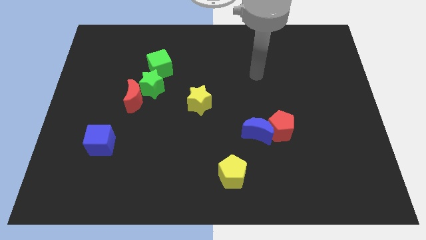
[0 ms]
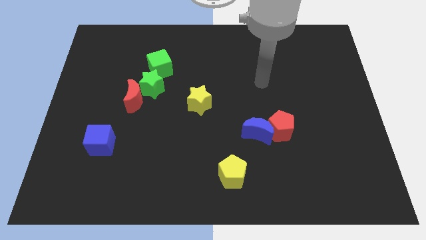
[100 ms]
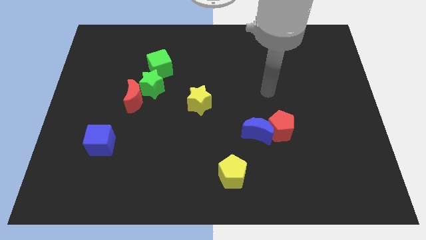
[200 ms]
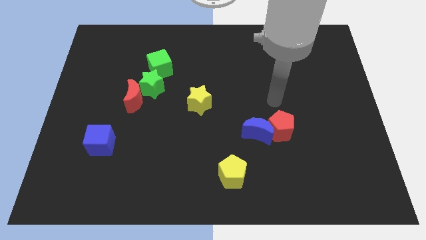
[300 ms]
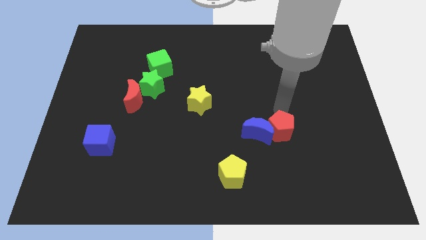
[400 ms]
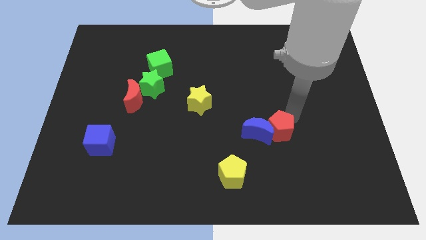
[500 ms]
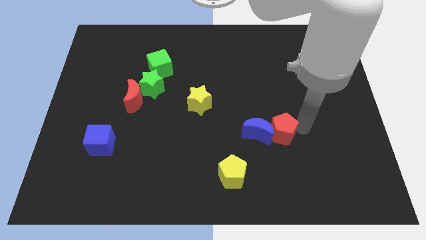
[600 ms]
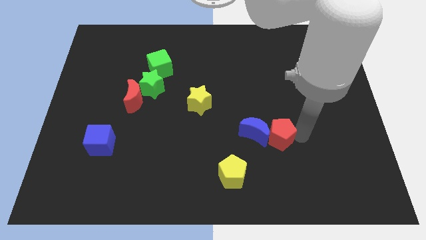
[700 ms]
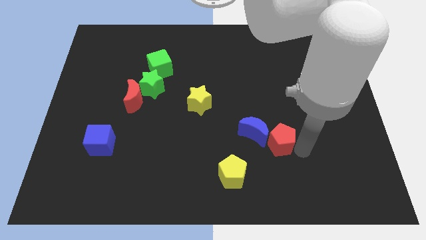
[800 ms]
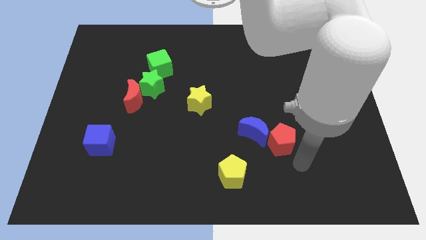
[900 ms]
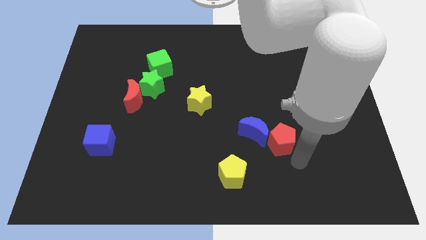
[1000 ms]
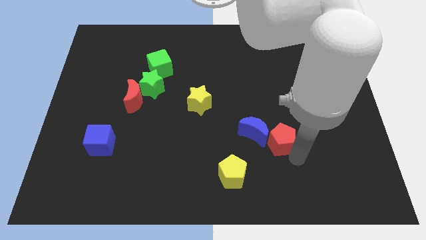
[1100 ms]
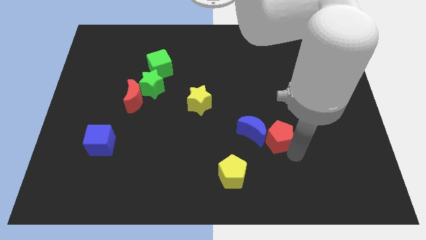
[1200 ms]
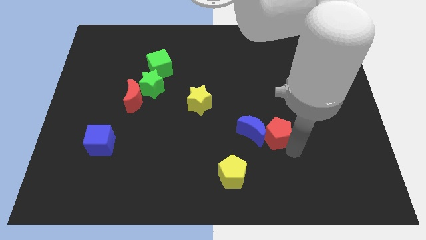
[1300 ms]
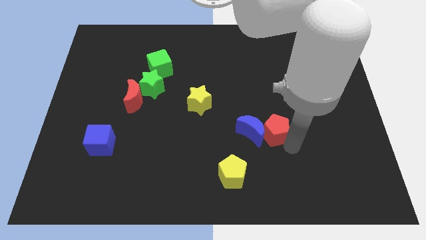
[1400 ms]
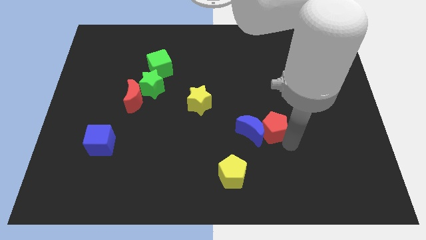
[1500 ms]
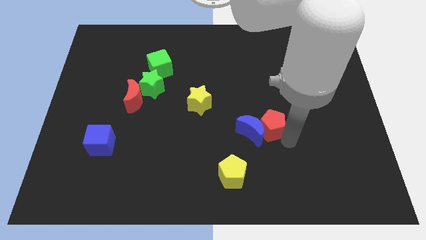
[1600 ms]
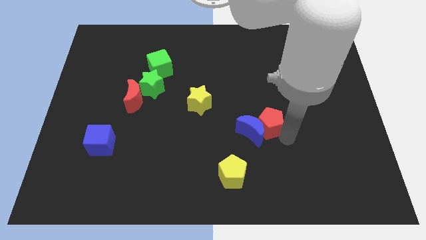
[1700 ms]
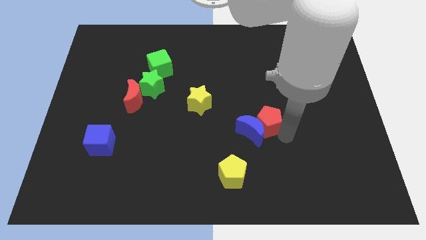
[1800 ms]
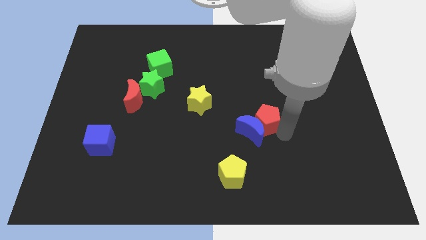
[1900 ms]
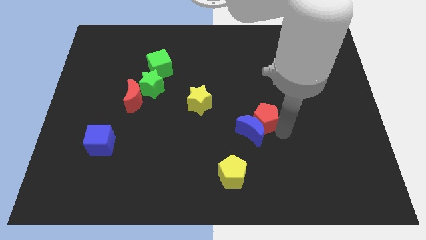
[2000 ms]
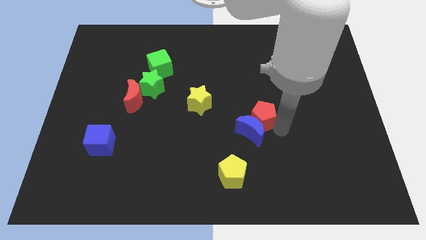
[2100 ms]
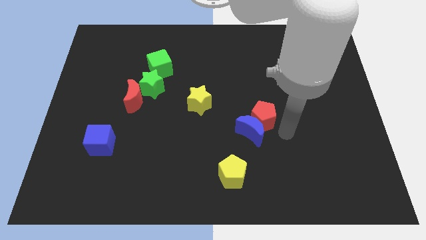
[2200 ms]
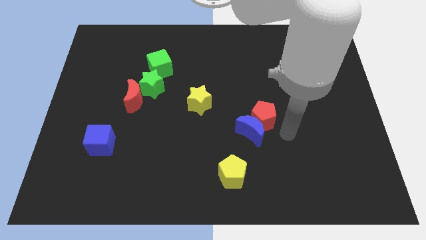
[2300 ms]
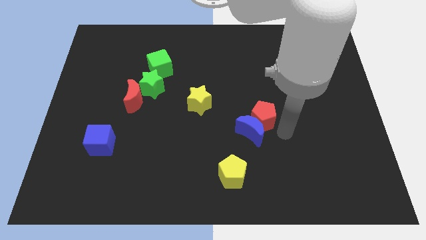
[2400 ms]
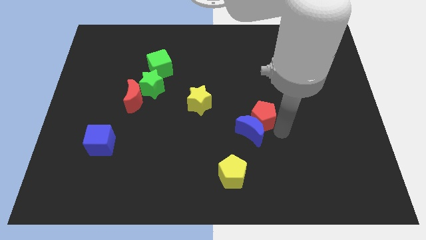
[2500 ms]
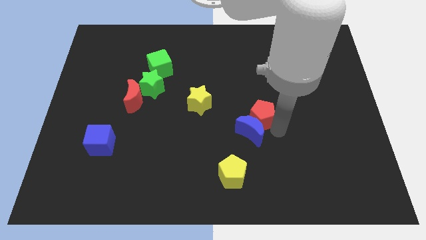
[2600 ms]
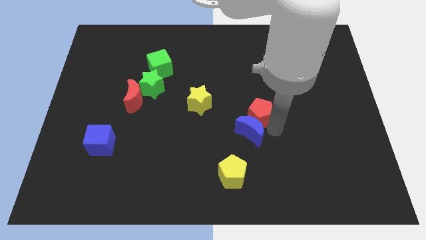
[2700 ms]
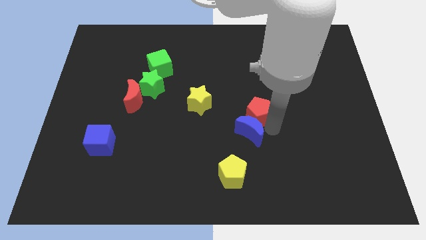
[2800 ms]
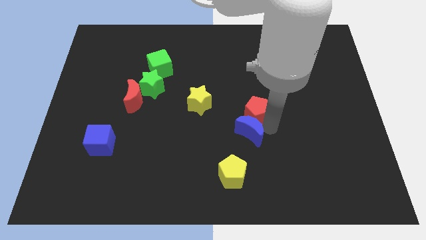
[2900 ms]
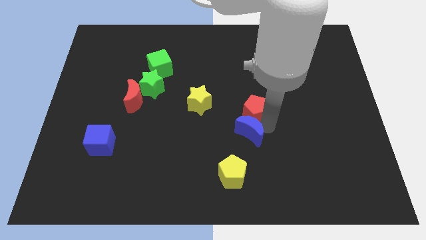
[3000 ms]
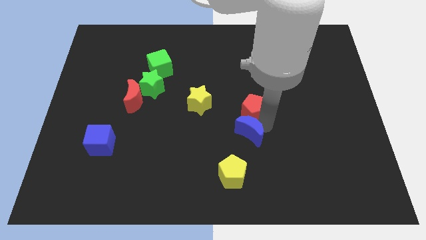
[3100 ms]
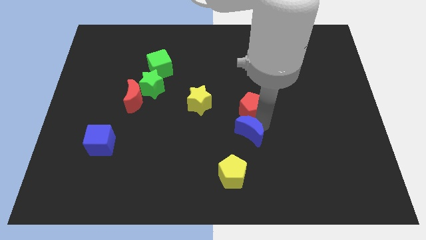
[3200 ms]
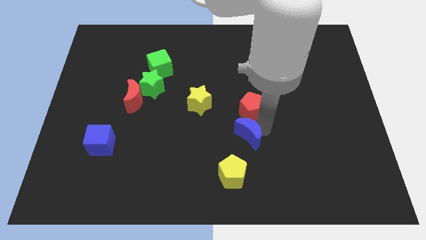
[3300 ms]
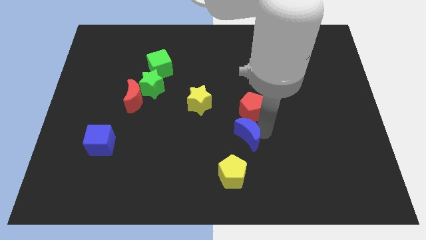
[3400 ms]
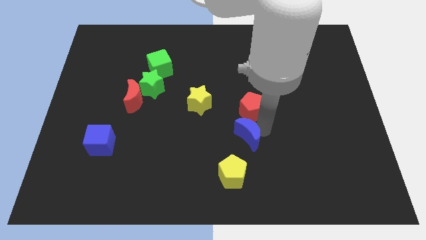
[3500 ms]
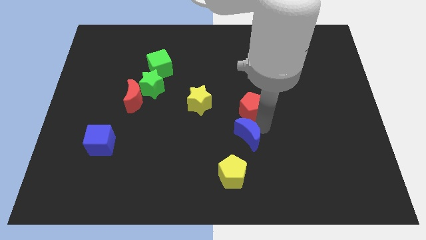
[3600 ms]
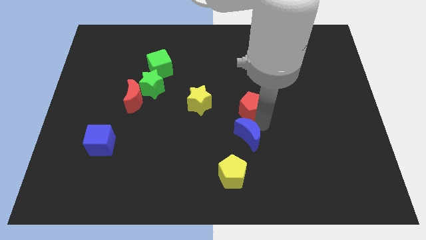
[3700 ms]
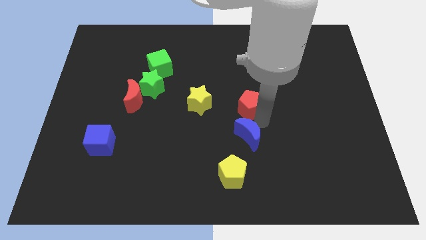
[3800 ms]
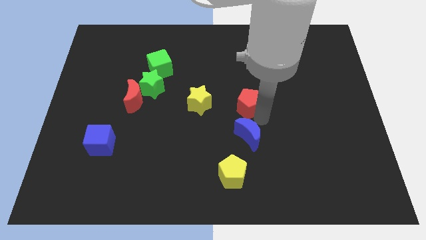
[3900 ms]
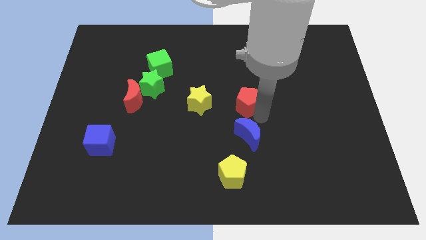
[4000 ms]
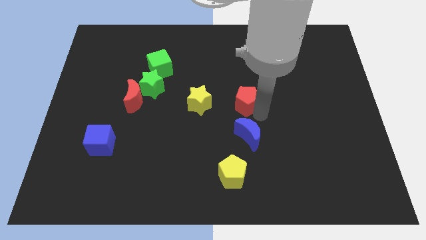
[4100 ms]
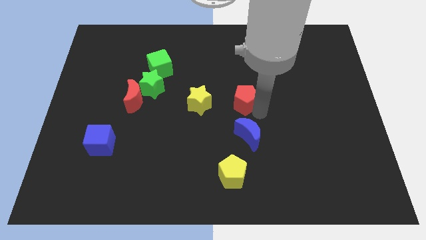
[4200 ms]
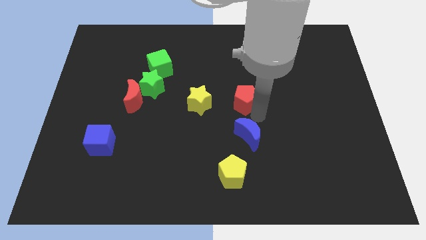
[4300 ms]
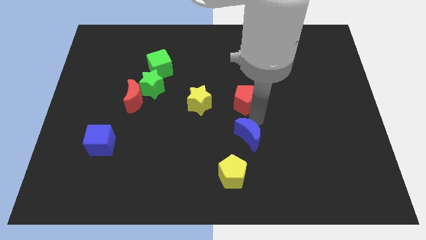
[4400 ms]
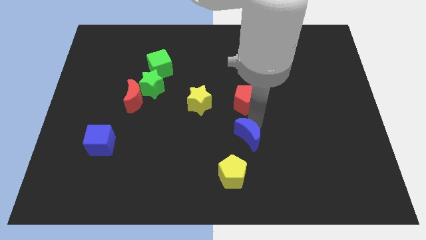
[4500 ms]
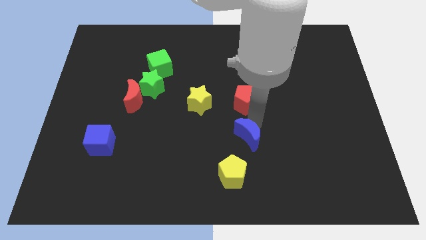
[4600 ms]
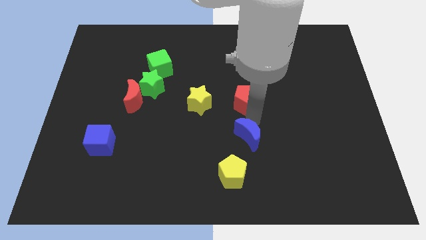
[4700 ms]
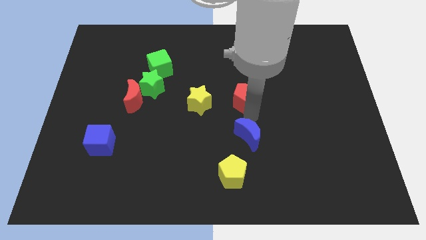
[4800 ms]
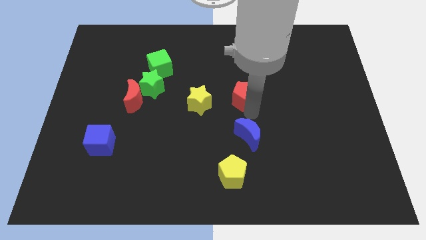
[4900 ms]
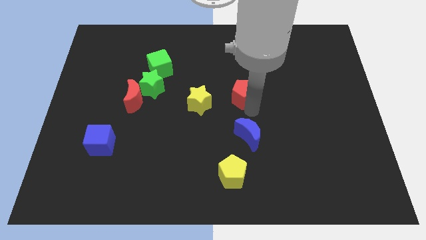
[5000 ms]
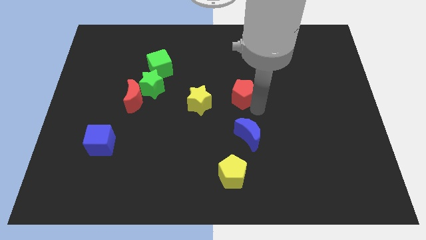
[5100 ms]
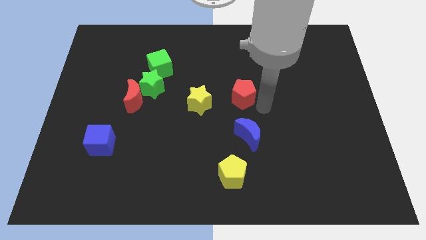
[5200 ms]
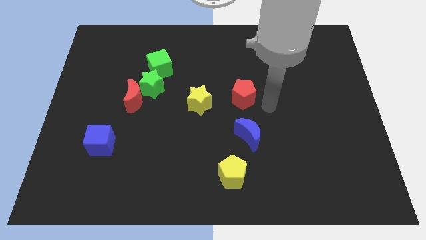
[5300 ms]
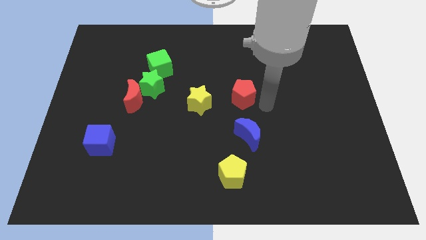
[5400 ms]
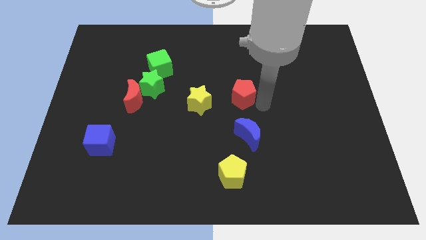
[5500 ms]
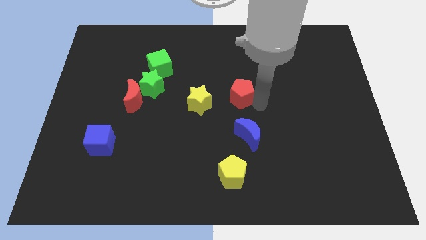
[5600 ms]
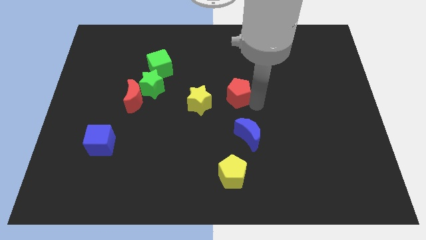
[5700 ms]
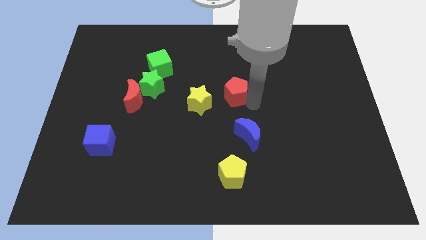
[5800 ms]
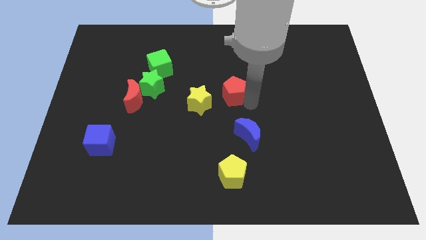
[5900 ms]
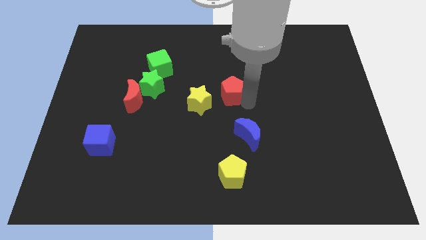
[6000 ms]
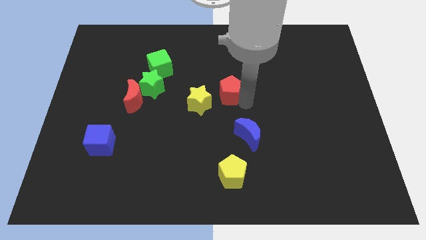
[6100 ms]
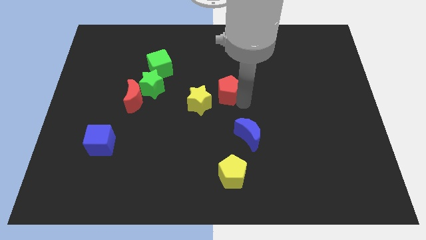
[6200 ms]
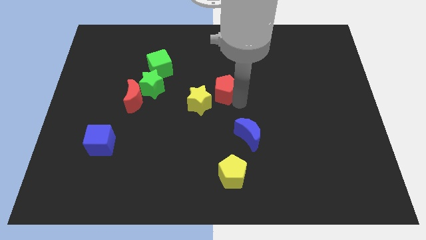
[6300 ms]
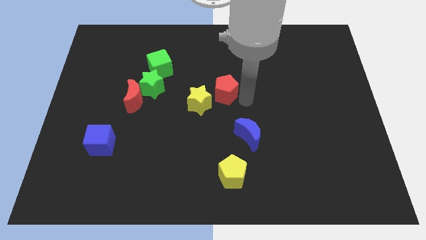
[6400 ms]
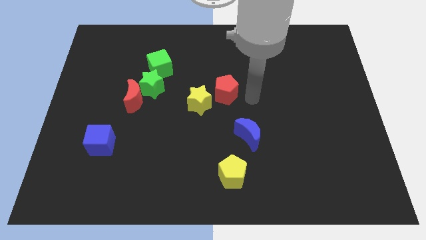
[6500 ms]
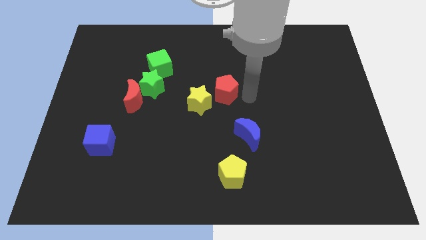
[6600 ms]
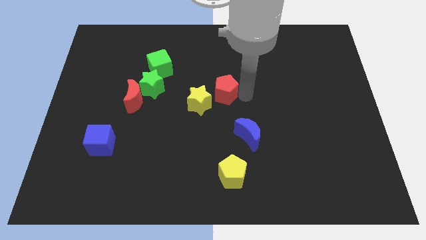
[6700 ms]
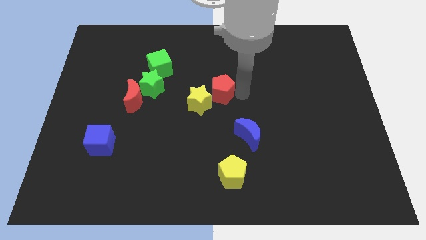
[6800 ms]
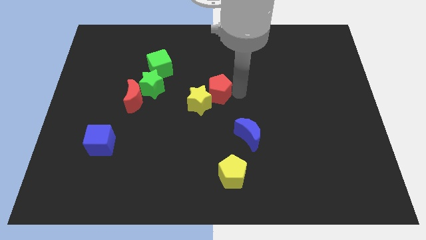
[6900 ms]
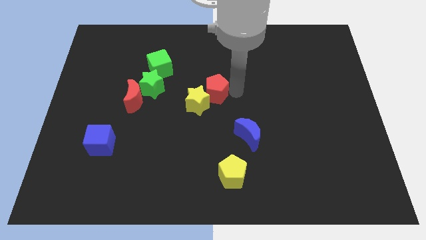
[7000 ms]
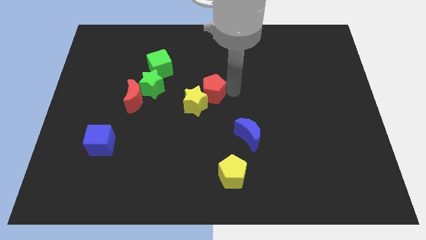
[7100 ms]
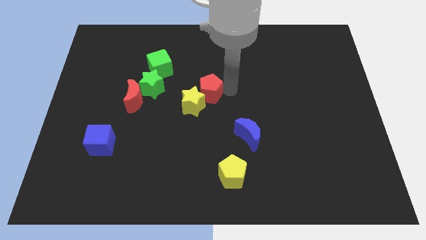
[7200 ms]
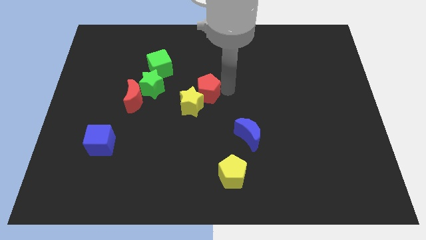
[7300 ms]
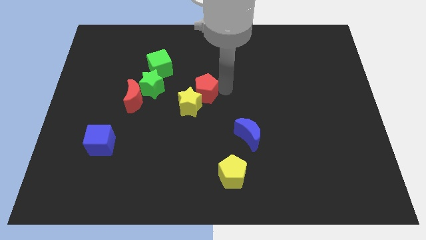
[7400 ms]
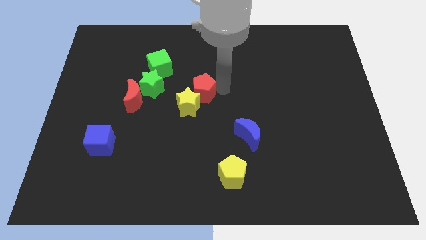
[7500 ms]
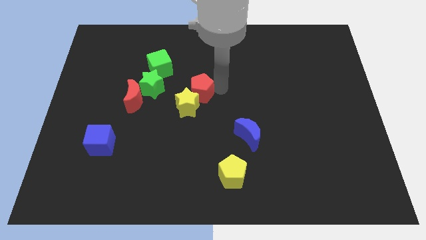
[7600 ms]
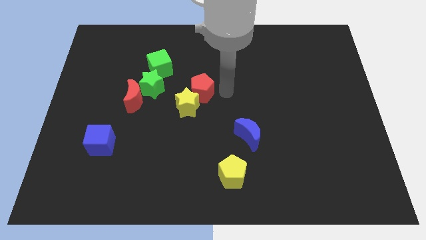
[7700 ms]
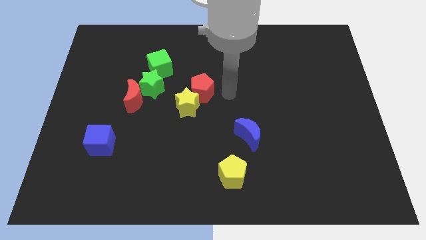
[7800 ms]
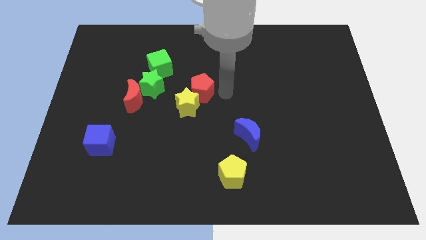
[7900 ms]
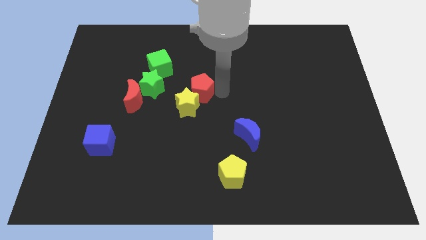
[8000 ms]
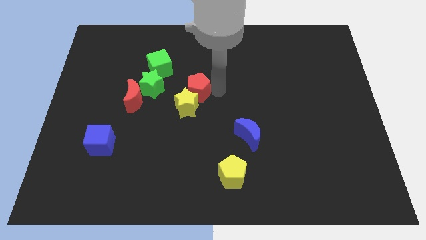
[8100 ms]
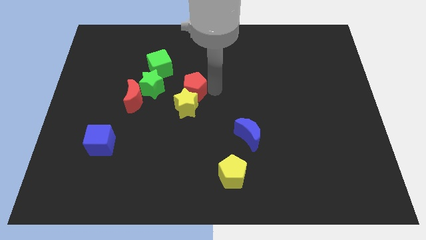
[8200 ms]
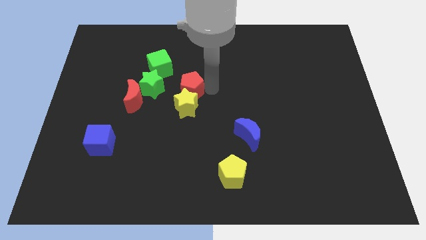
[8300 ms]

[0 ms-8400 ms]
move the red pentagon to the top left side of the yellow star
